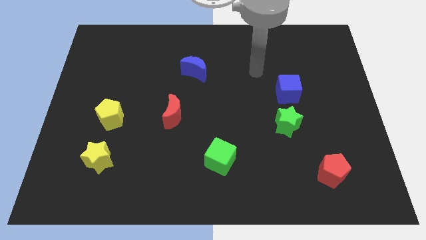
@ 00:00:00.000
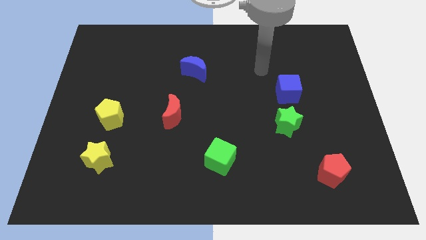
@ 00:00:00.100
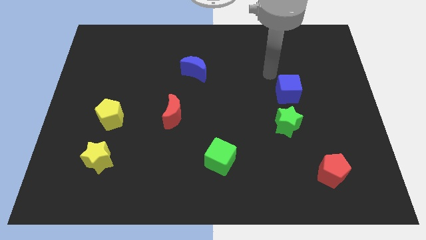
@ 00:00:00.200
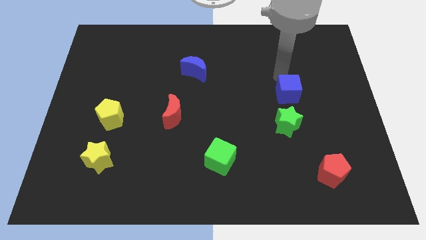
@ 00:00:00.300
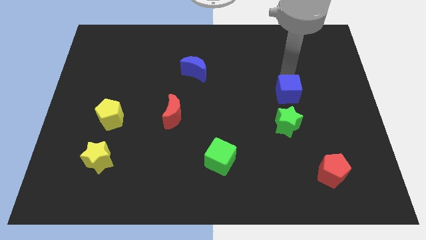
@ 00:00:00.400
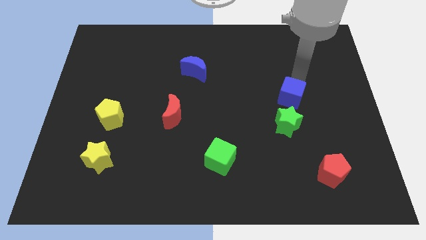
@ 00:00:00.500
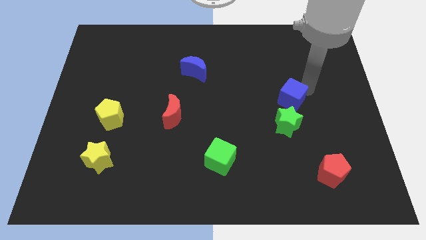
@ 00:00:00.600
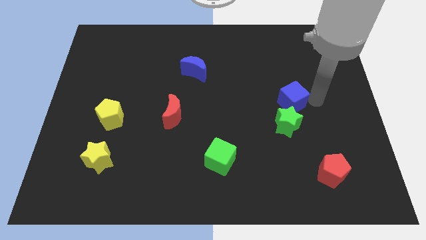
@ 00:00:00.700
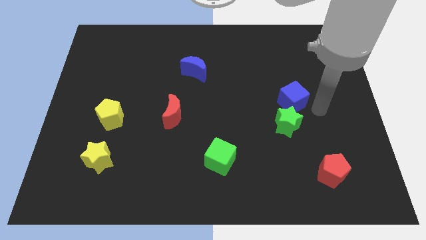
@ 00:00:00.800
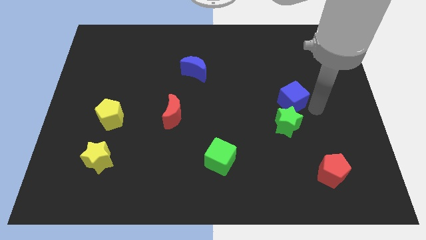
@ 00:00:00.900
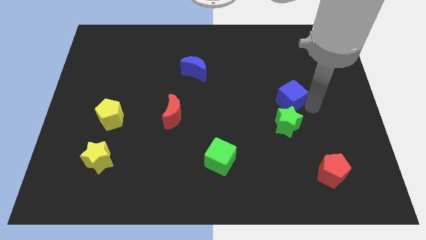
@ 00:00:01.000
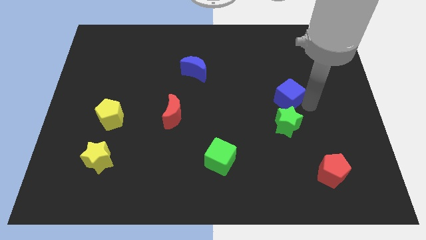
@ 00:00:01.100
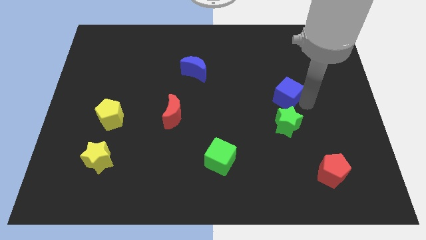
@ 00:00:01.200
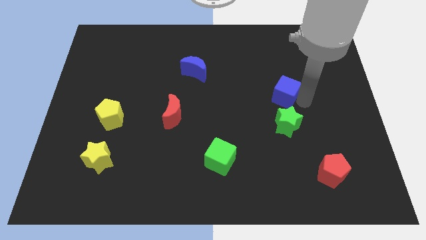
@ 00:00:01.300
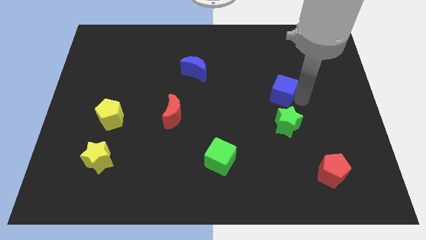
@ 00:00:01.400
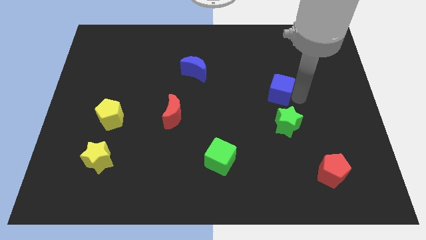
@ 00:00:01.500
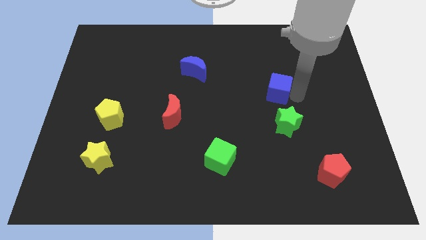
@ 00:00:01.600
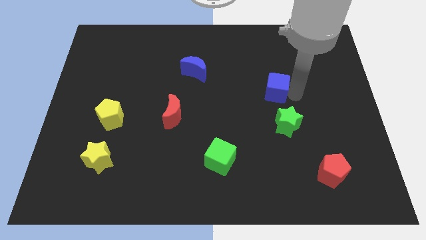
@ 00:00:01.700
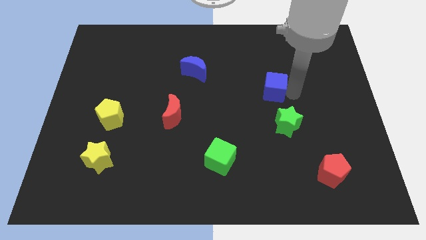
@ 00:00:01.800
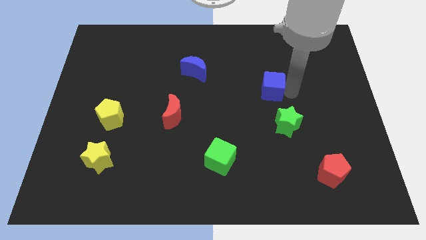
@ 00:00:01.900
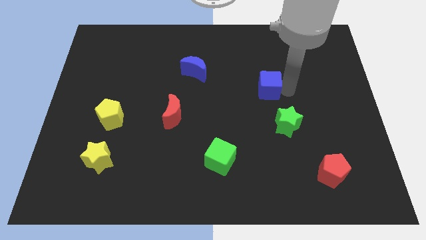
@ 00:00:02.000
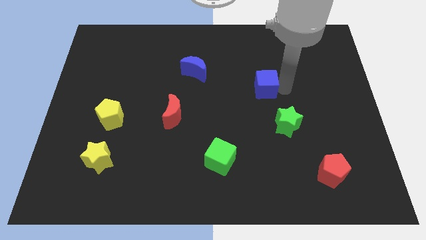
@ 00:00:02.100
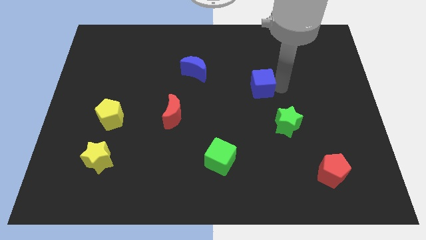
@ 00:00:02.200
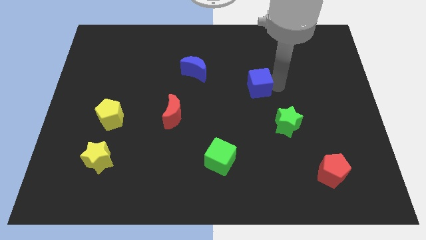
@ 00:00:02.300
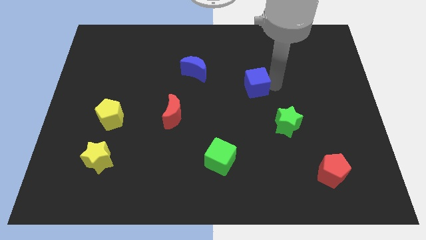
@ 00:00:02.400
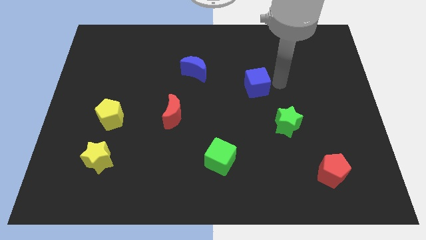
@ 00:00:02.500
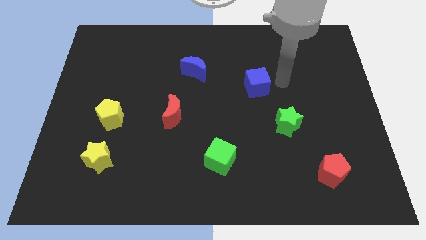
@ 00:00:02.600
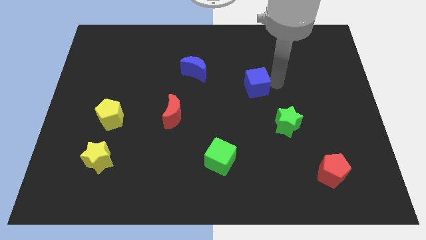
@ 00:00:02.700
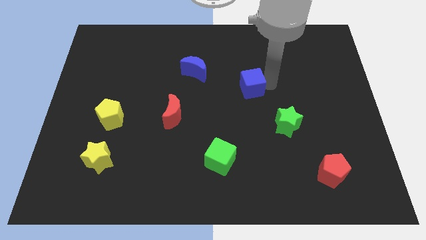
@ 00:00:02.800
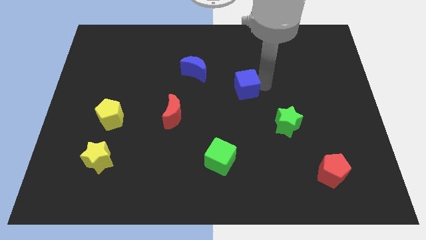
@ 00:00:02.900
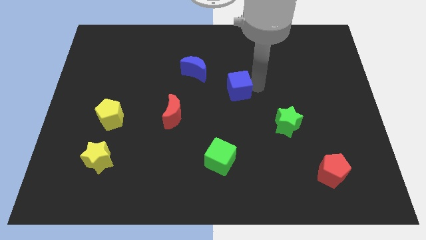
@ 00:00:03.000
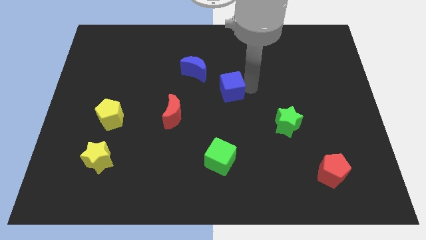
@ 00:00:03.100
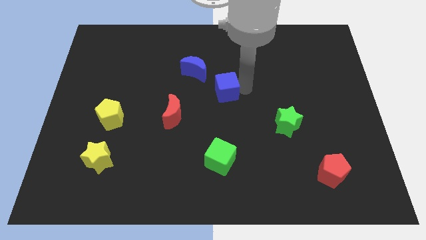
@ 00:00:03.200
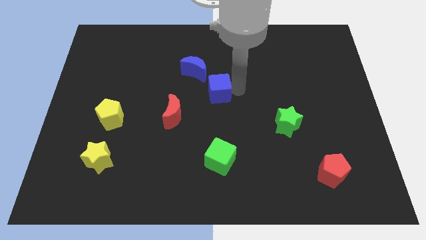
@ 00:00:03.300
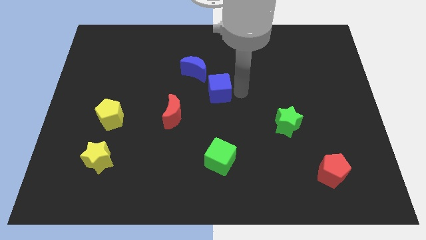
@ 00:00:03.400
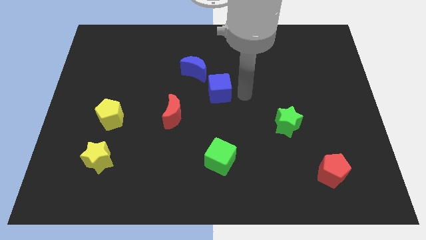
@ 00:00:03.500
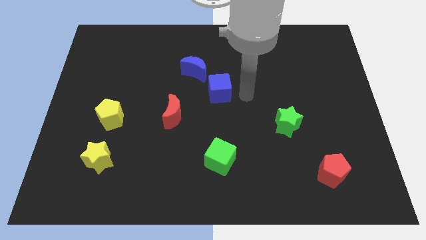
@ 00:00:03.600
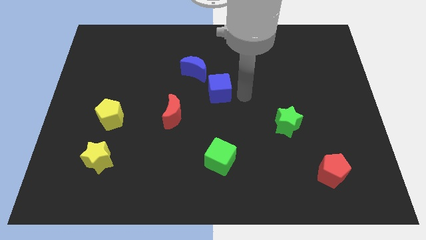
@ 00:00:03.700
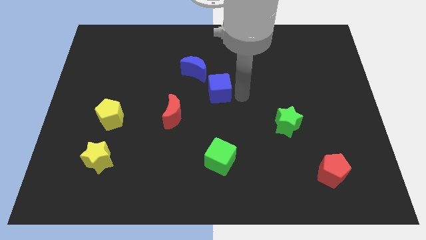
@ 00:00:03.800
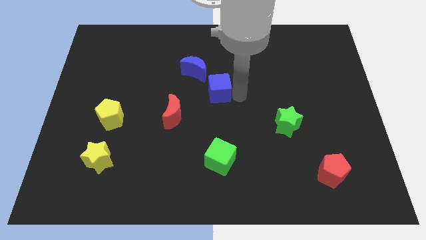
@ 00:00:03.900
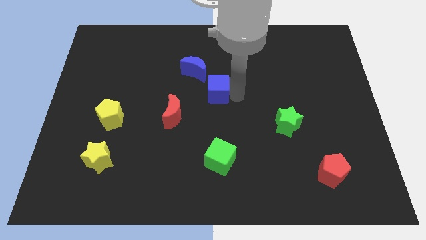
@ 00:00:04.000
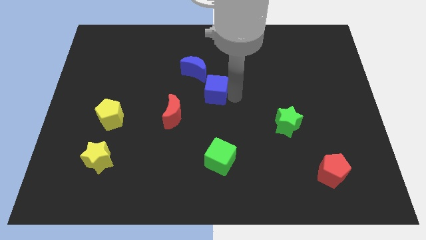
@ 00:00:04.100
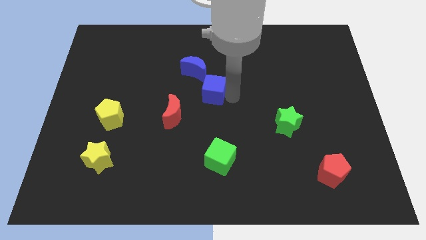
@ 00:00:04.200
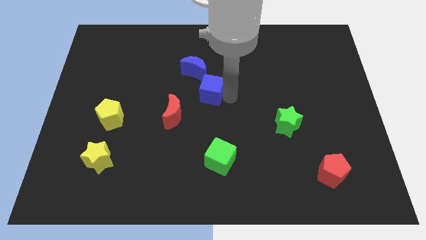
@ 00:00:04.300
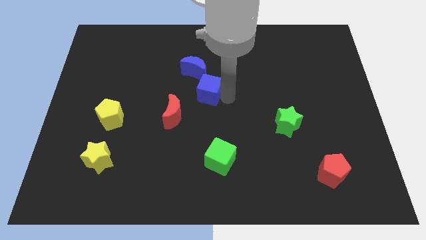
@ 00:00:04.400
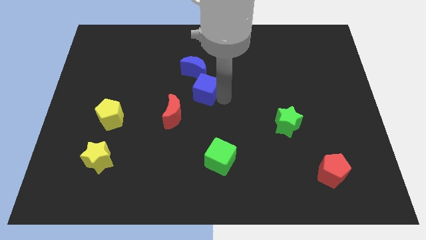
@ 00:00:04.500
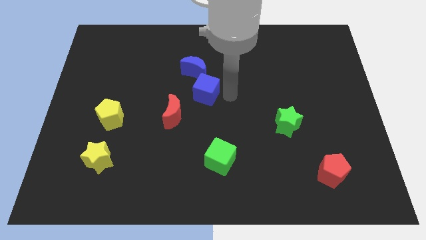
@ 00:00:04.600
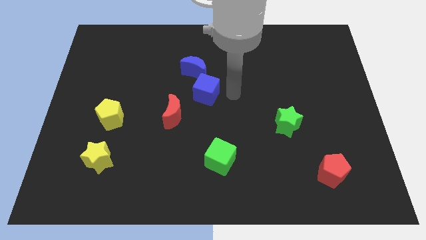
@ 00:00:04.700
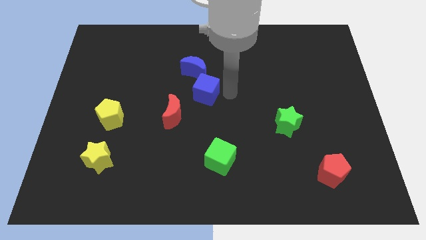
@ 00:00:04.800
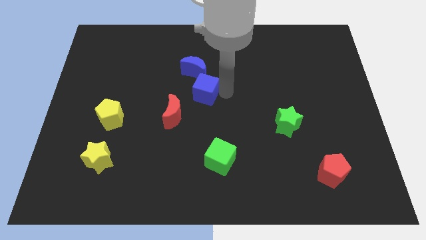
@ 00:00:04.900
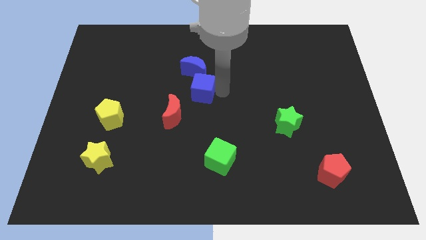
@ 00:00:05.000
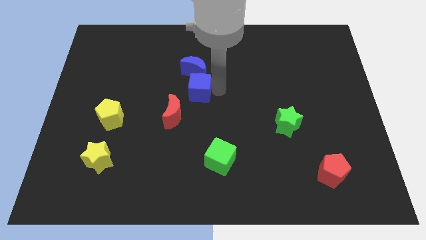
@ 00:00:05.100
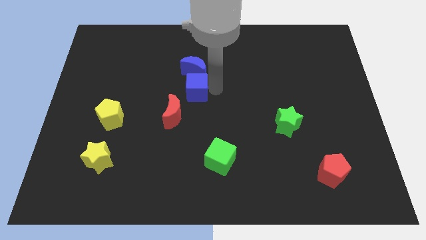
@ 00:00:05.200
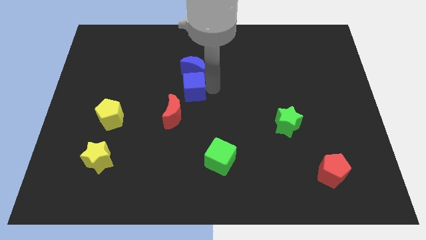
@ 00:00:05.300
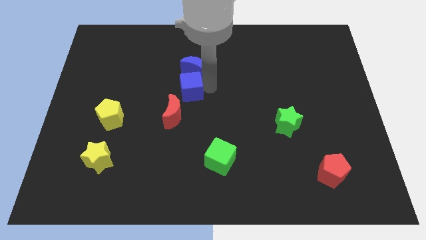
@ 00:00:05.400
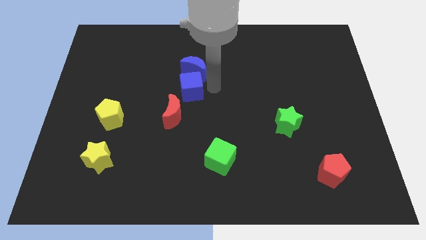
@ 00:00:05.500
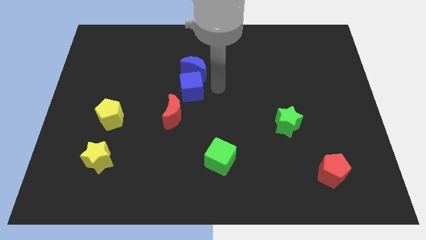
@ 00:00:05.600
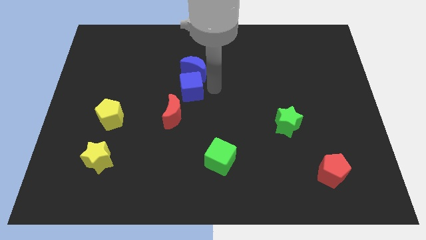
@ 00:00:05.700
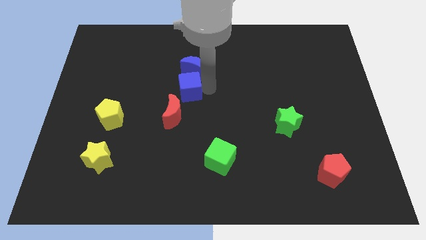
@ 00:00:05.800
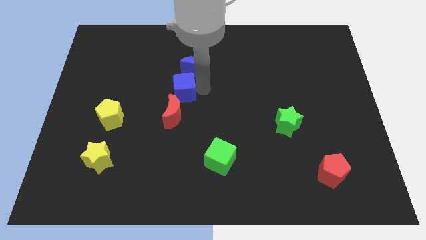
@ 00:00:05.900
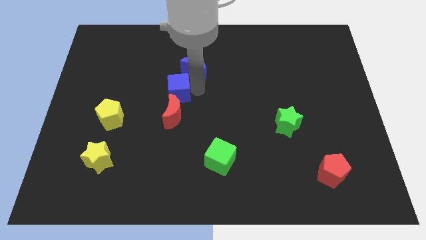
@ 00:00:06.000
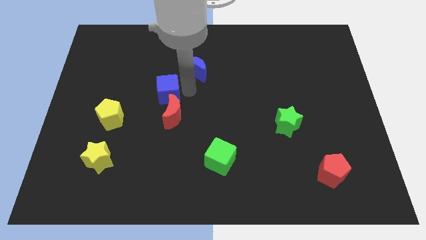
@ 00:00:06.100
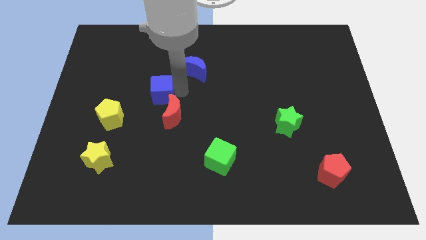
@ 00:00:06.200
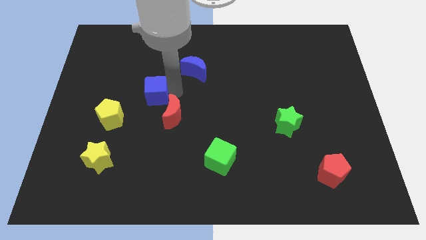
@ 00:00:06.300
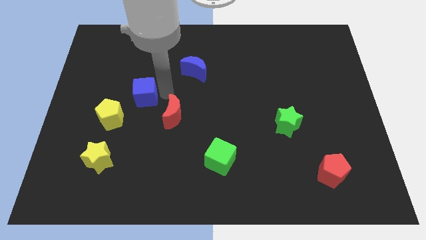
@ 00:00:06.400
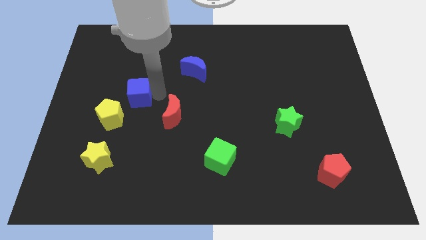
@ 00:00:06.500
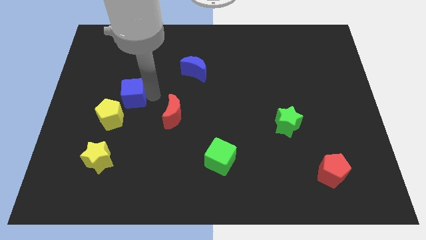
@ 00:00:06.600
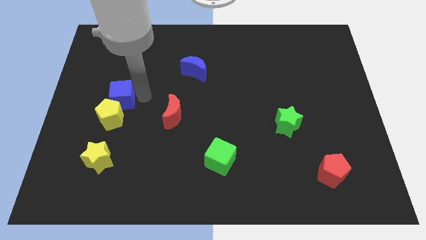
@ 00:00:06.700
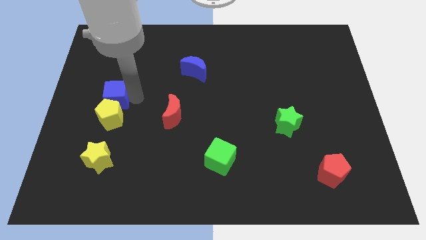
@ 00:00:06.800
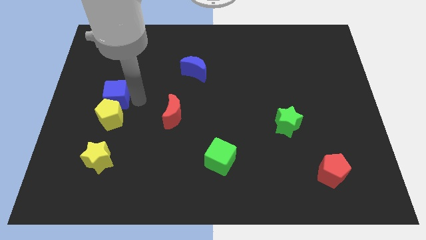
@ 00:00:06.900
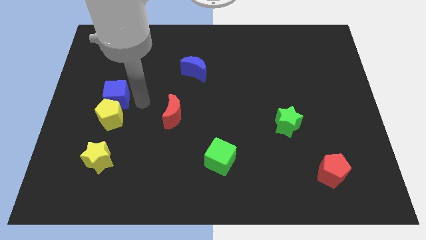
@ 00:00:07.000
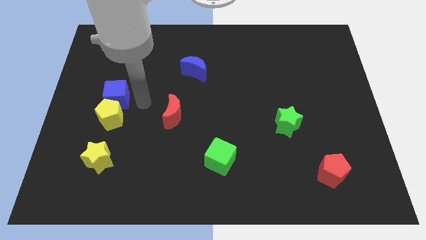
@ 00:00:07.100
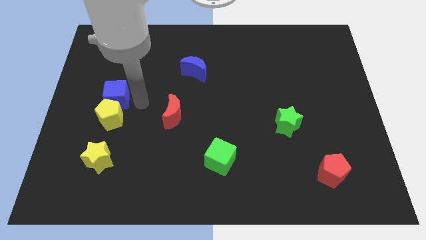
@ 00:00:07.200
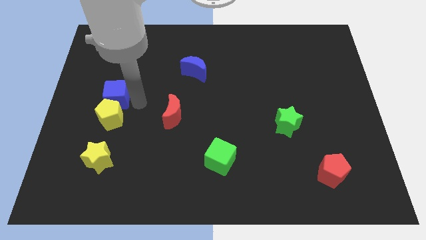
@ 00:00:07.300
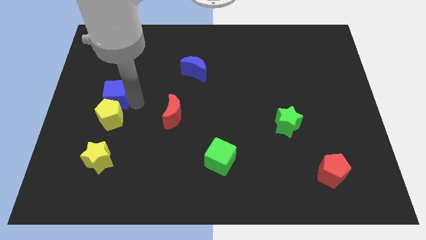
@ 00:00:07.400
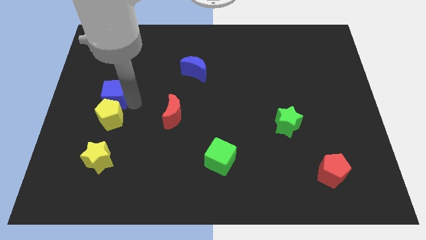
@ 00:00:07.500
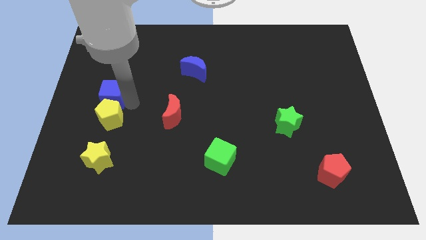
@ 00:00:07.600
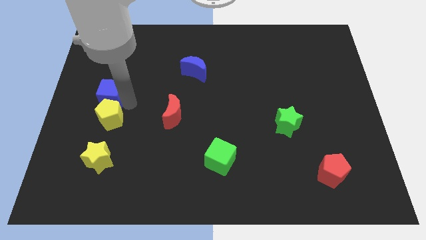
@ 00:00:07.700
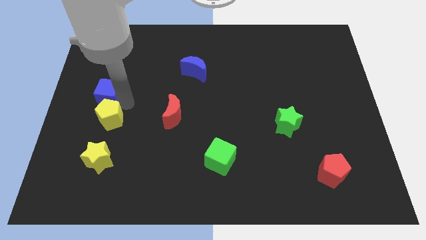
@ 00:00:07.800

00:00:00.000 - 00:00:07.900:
put the blue cube to the left side
